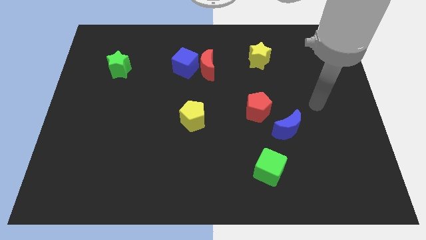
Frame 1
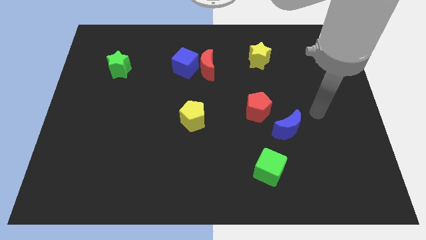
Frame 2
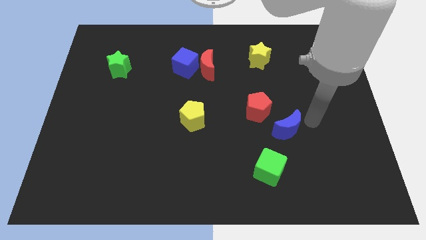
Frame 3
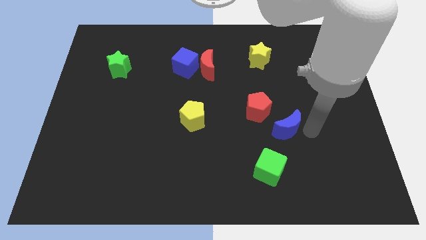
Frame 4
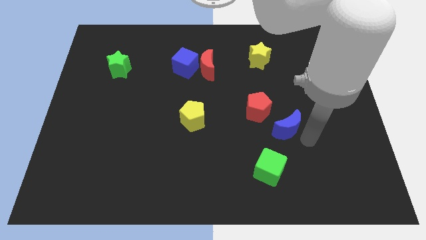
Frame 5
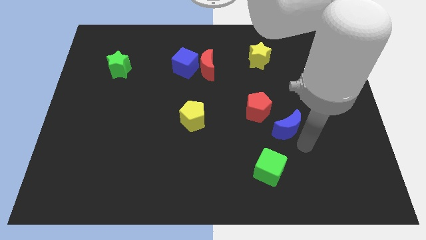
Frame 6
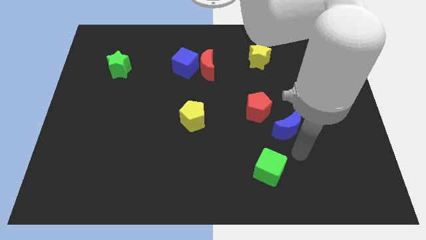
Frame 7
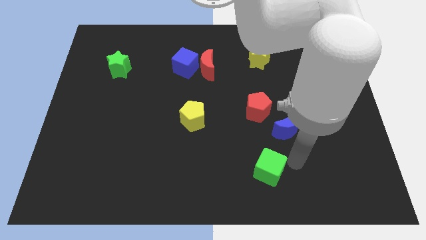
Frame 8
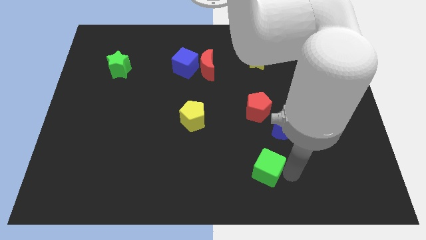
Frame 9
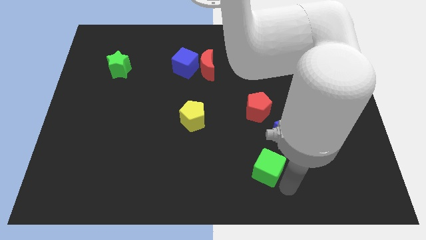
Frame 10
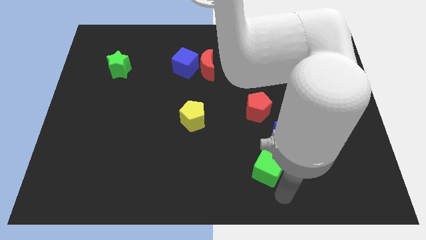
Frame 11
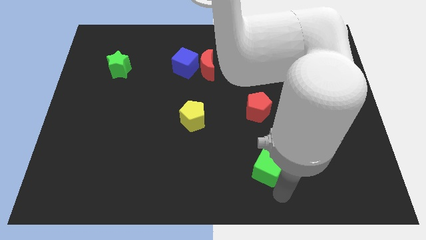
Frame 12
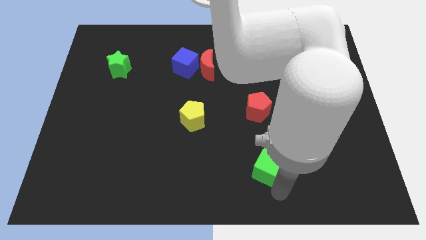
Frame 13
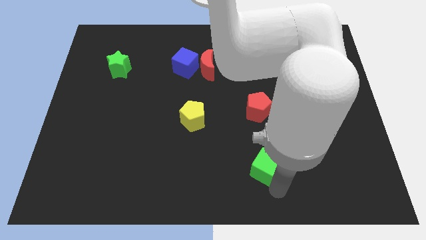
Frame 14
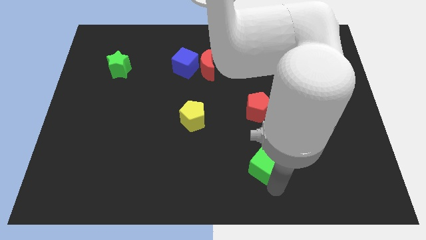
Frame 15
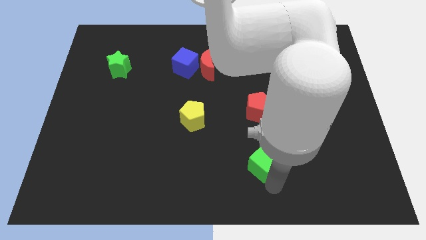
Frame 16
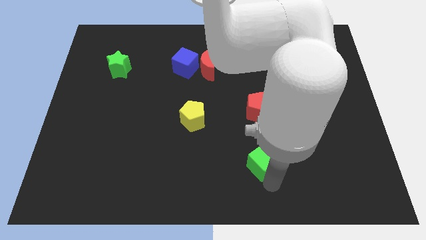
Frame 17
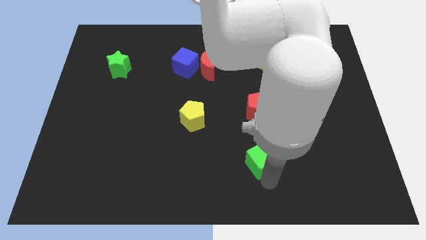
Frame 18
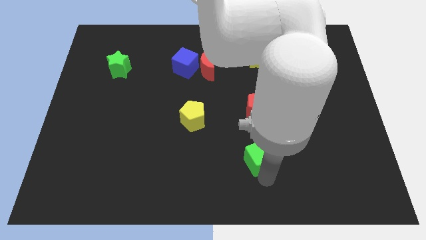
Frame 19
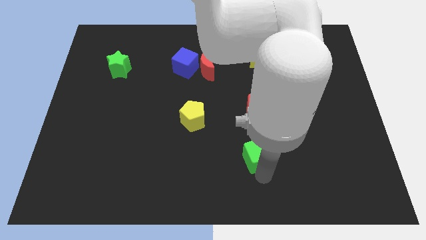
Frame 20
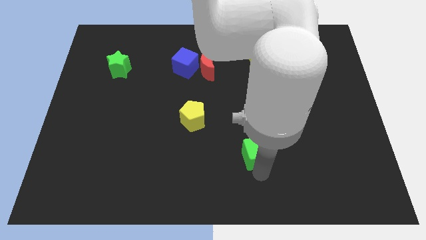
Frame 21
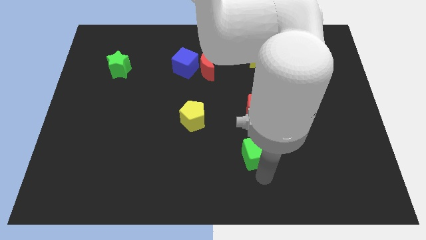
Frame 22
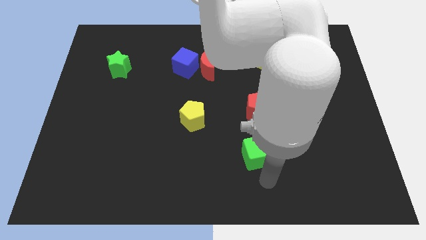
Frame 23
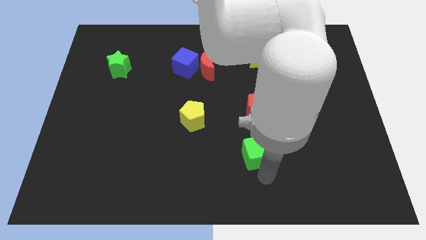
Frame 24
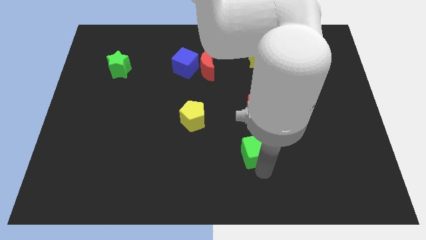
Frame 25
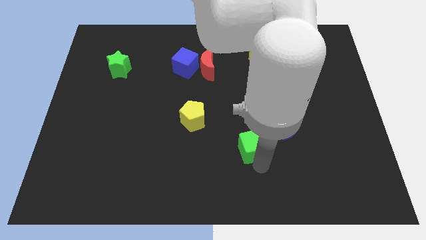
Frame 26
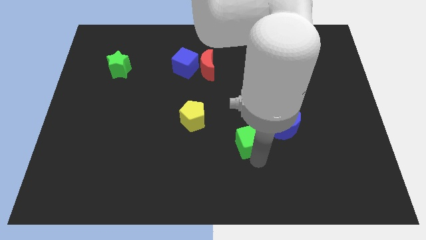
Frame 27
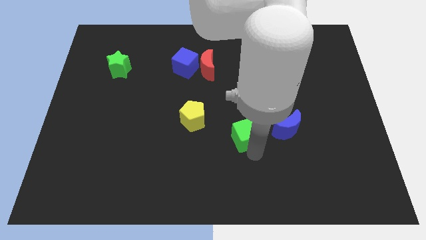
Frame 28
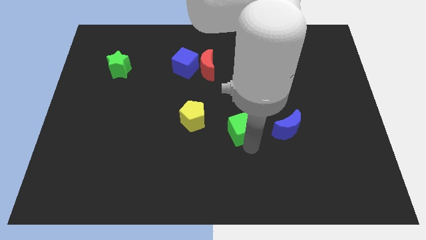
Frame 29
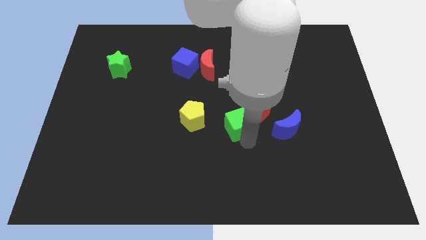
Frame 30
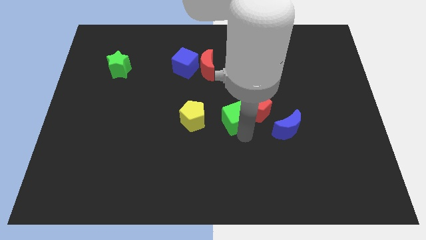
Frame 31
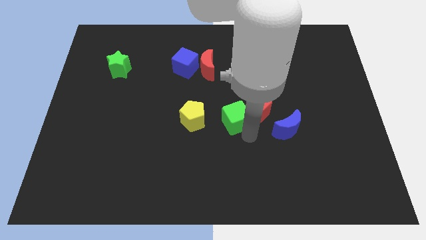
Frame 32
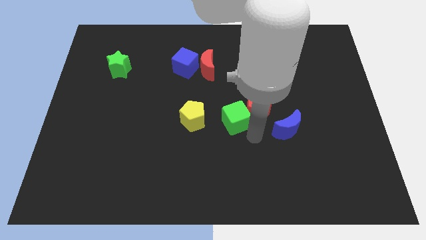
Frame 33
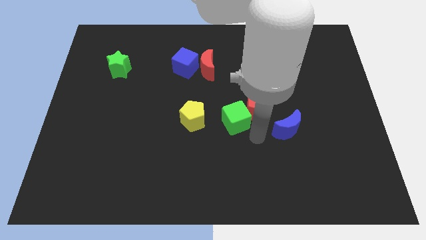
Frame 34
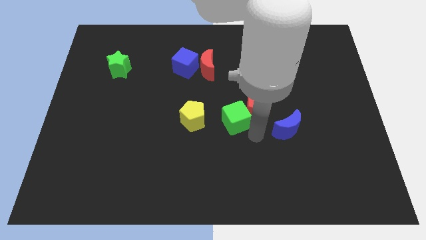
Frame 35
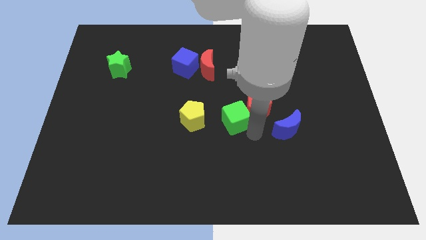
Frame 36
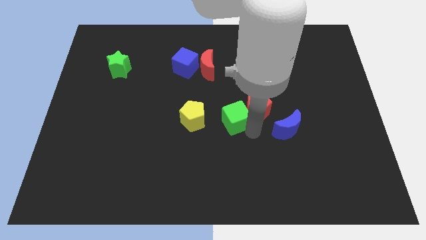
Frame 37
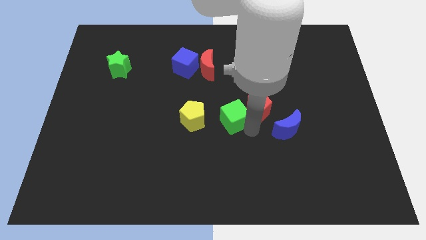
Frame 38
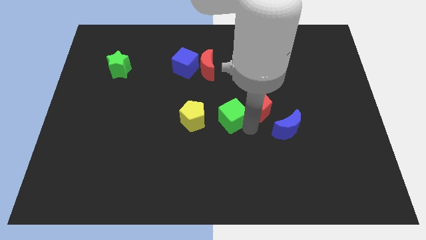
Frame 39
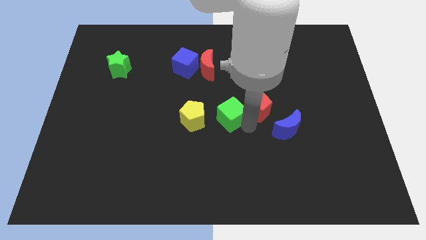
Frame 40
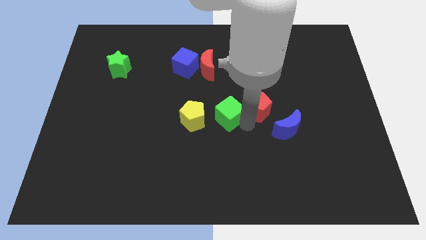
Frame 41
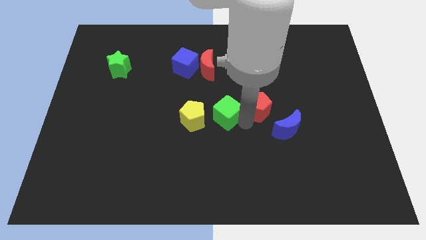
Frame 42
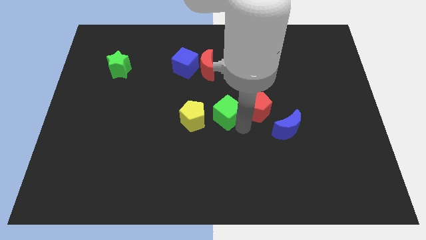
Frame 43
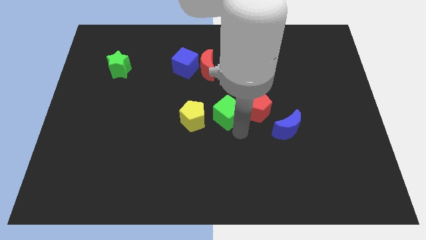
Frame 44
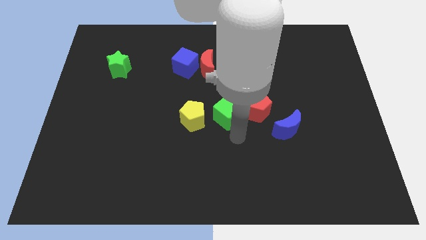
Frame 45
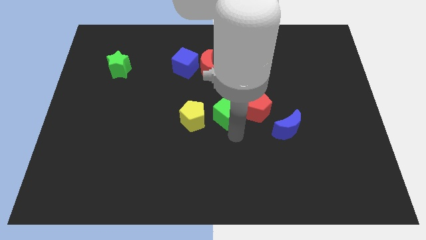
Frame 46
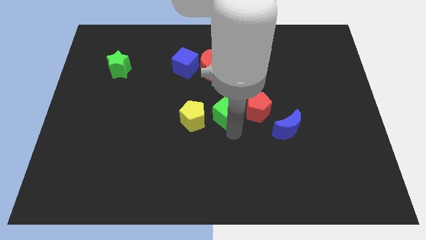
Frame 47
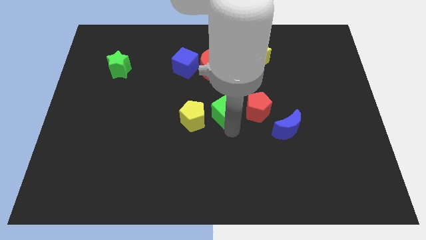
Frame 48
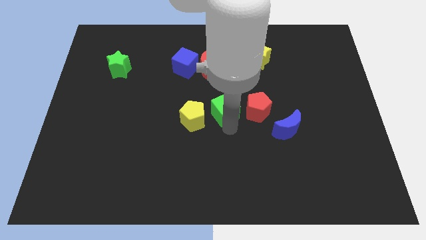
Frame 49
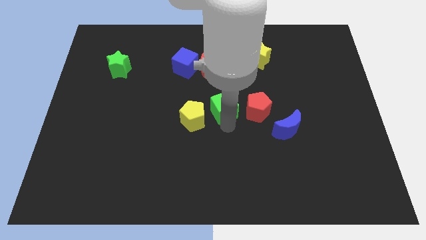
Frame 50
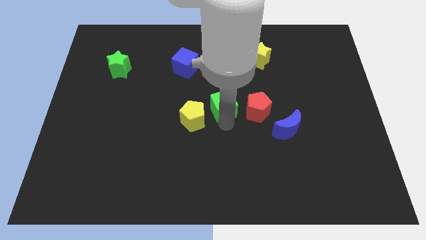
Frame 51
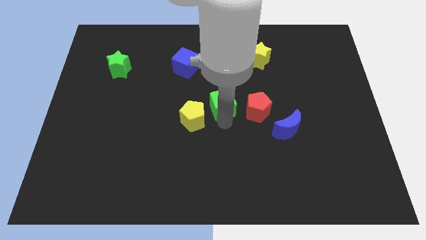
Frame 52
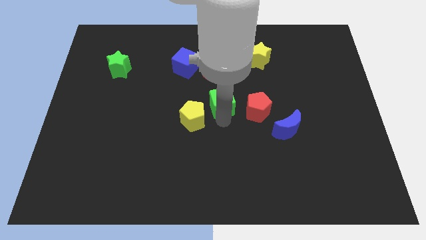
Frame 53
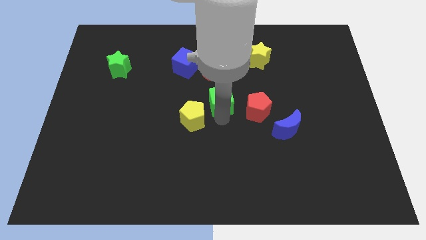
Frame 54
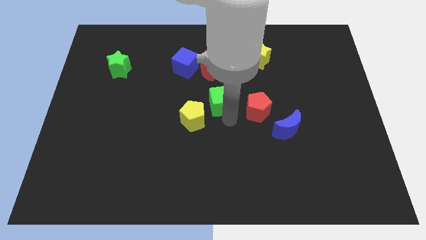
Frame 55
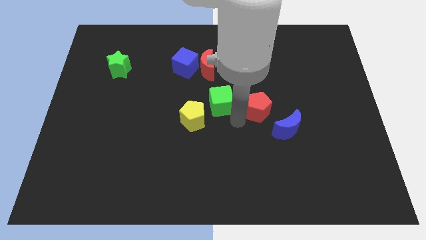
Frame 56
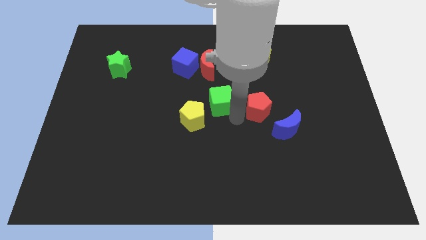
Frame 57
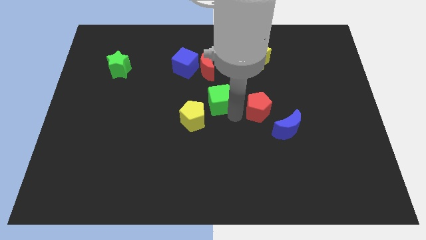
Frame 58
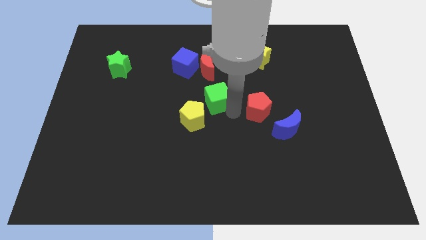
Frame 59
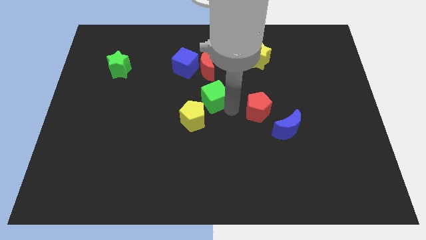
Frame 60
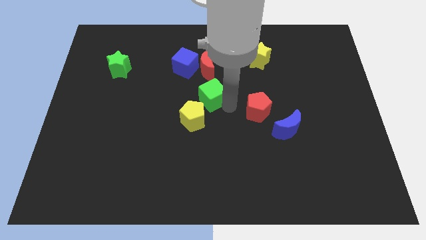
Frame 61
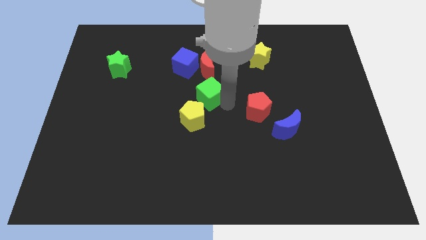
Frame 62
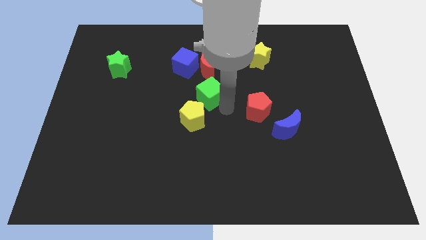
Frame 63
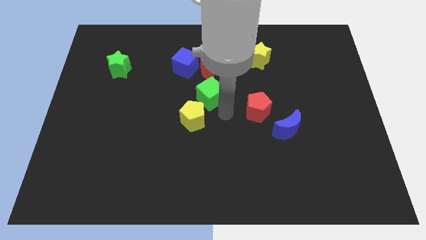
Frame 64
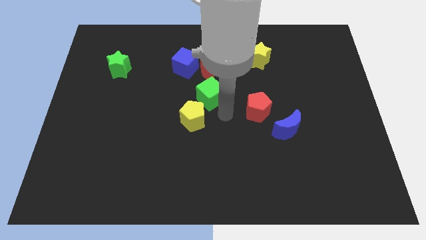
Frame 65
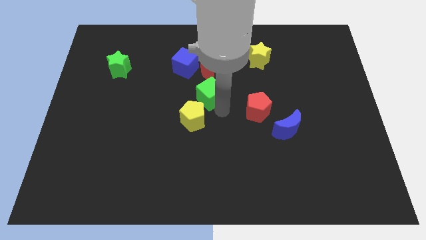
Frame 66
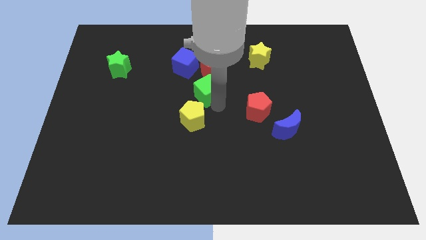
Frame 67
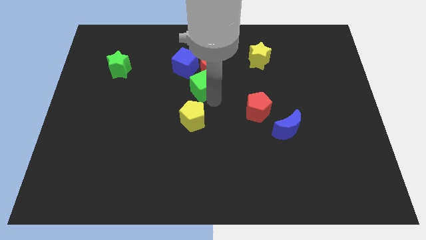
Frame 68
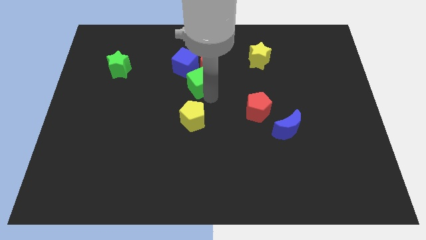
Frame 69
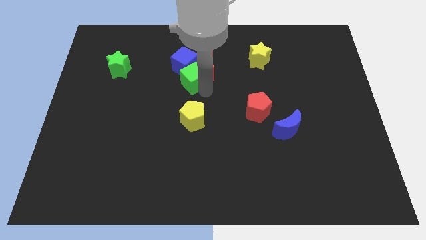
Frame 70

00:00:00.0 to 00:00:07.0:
move the green cube towards the blue cube
